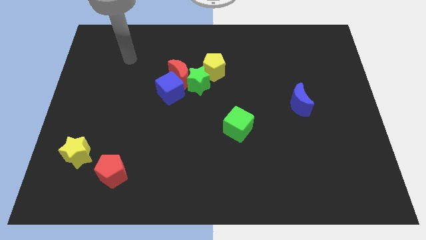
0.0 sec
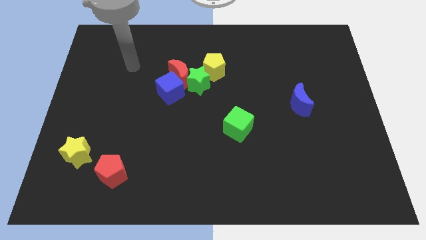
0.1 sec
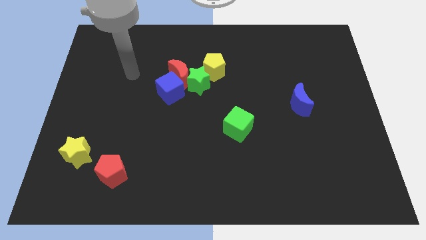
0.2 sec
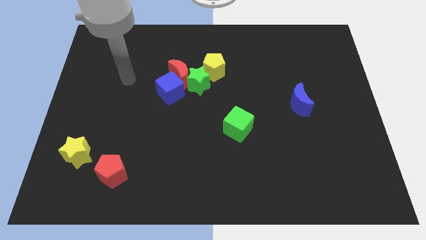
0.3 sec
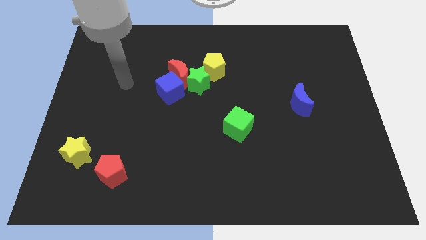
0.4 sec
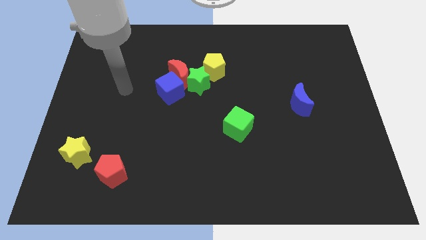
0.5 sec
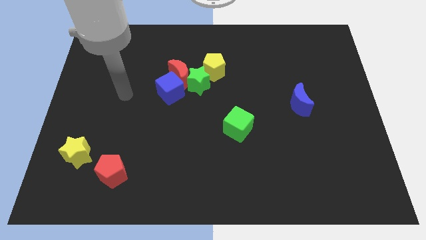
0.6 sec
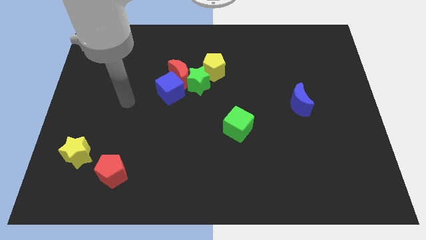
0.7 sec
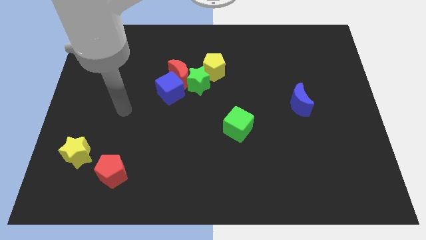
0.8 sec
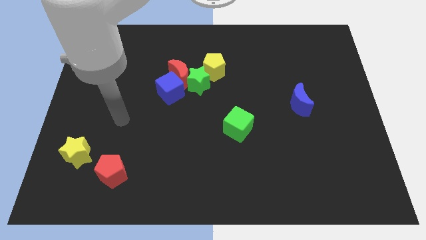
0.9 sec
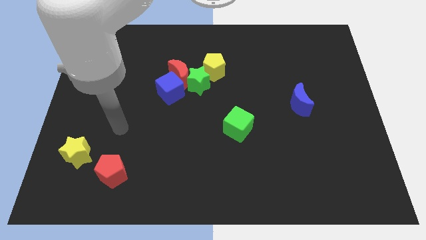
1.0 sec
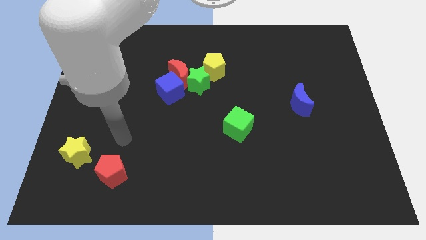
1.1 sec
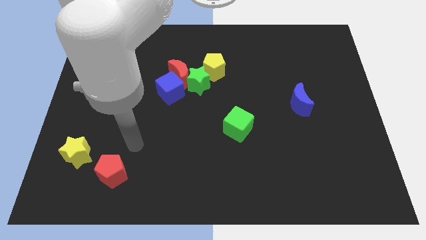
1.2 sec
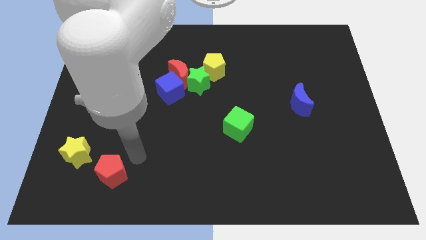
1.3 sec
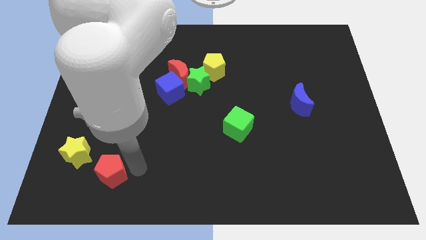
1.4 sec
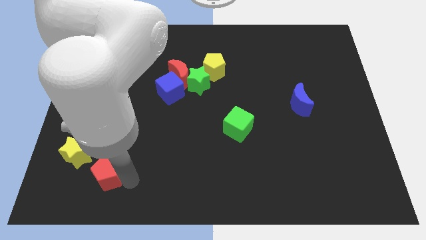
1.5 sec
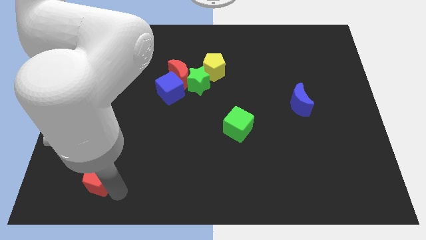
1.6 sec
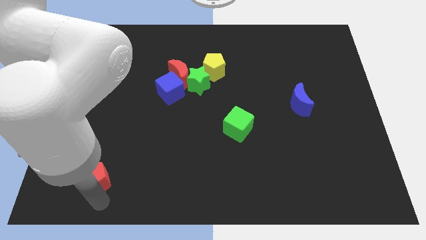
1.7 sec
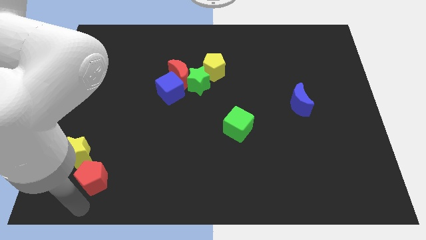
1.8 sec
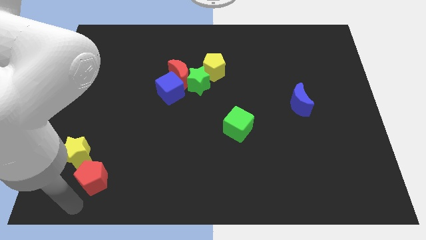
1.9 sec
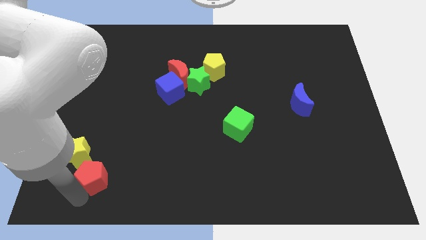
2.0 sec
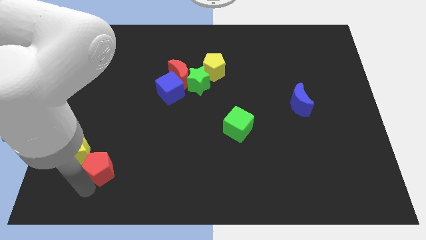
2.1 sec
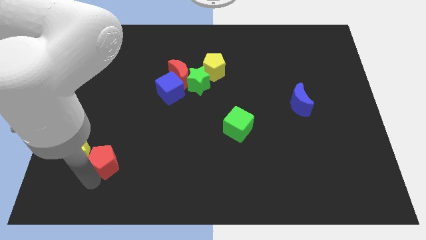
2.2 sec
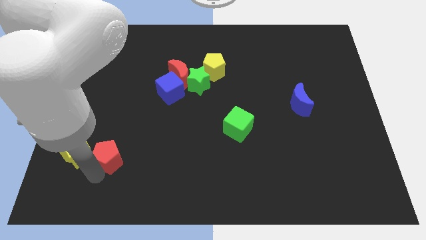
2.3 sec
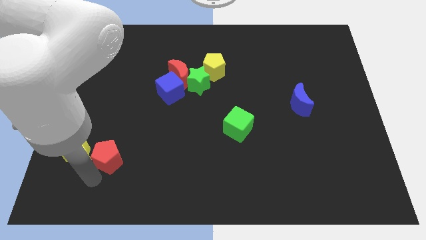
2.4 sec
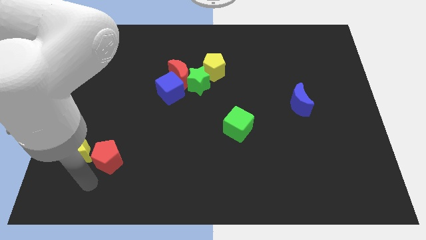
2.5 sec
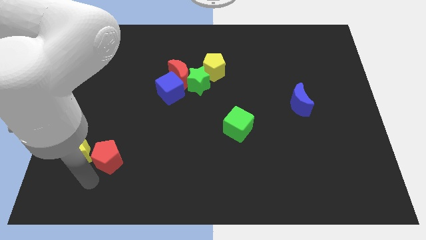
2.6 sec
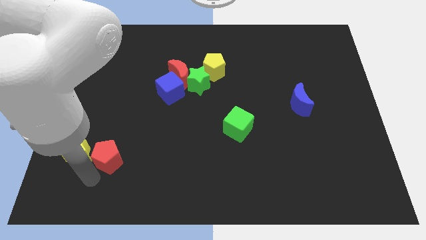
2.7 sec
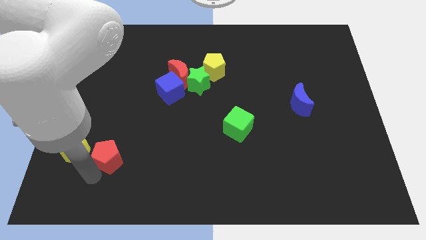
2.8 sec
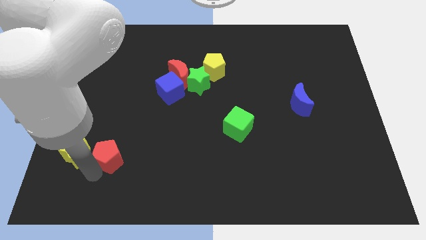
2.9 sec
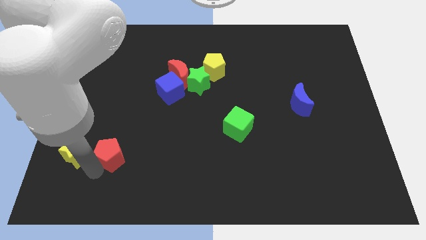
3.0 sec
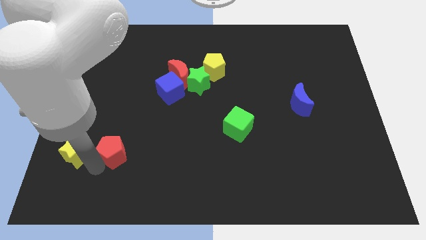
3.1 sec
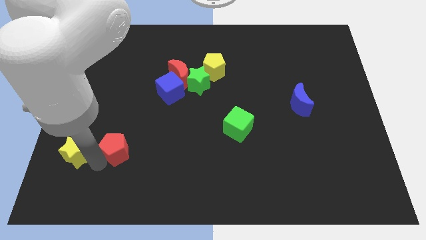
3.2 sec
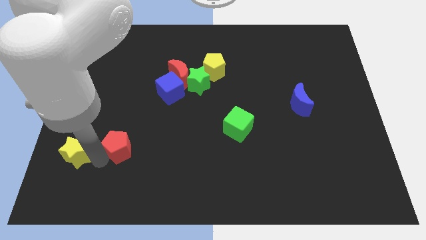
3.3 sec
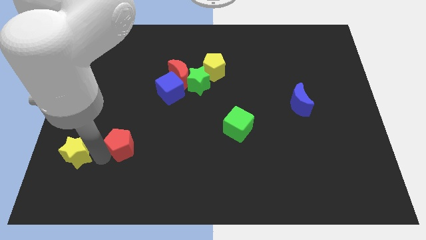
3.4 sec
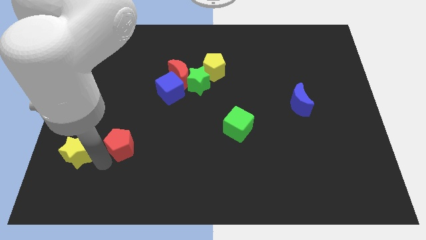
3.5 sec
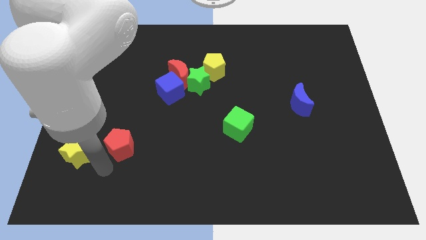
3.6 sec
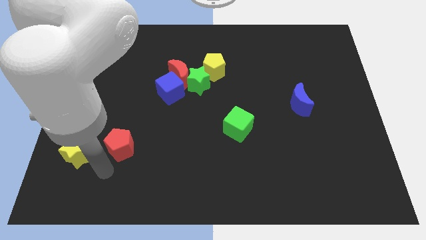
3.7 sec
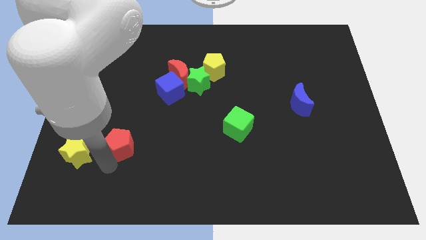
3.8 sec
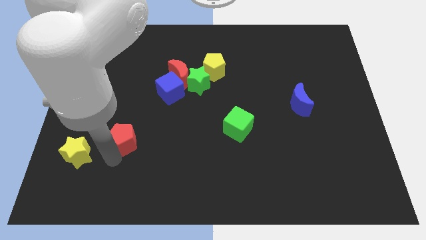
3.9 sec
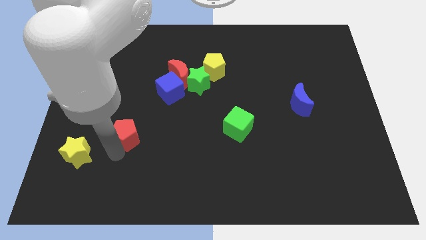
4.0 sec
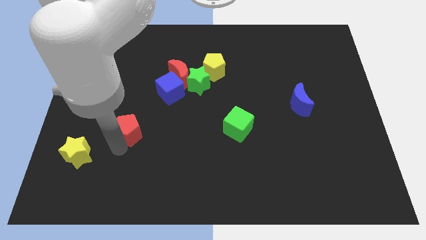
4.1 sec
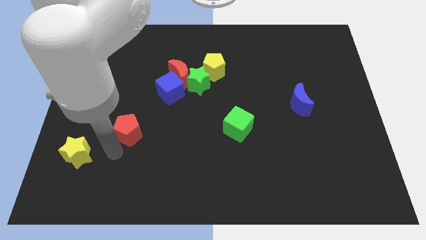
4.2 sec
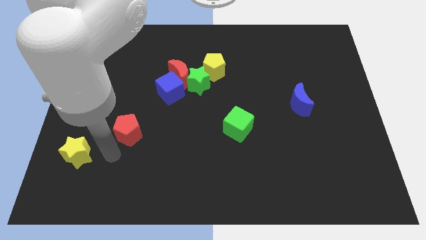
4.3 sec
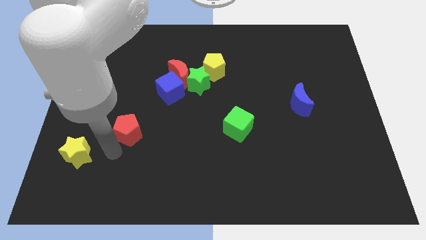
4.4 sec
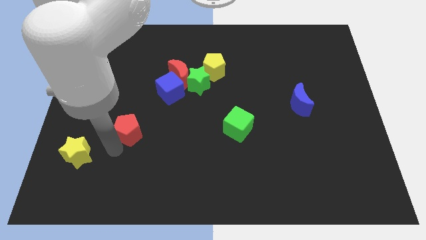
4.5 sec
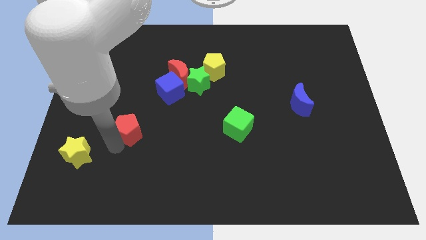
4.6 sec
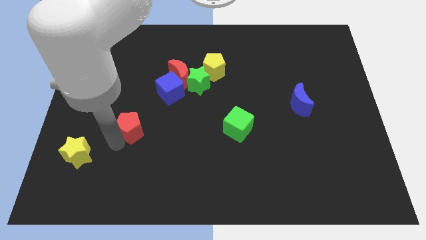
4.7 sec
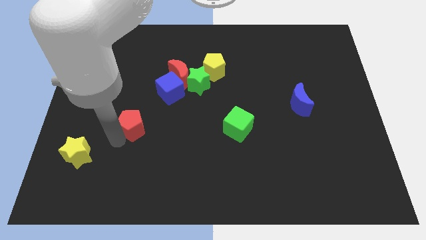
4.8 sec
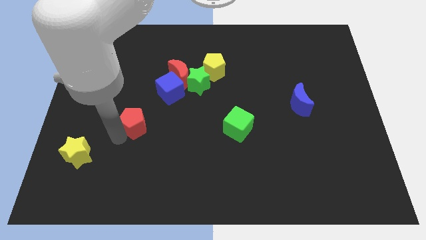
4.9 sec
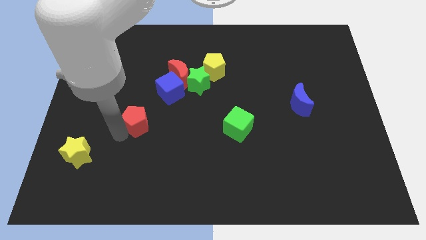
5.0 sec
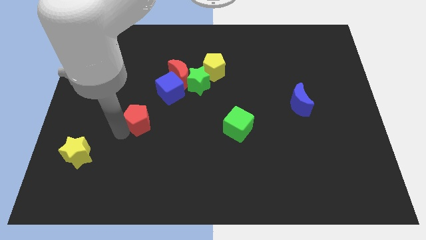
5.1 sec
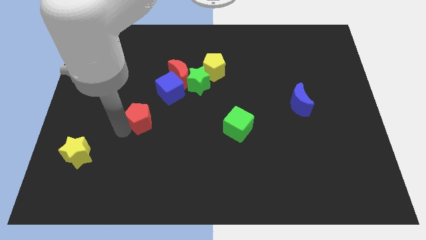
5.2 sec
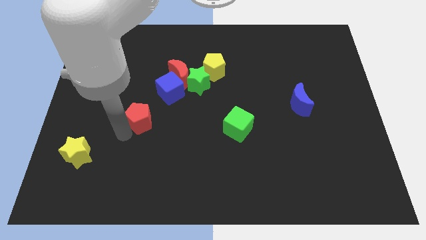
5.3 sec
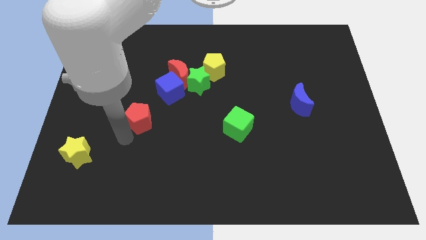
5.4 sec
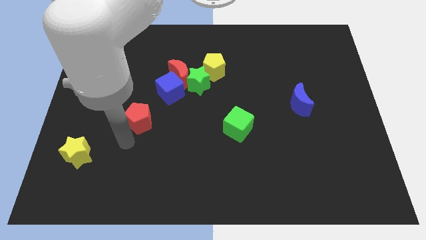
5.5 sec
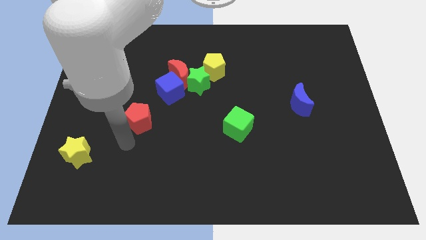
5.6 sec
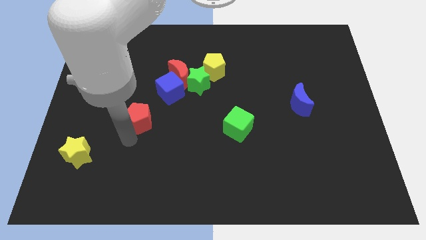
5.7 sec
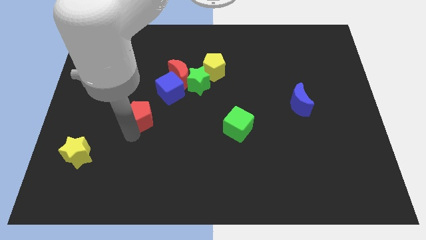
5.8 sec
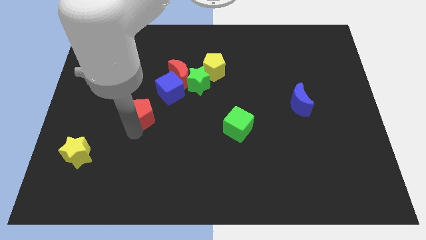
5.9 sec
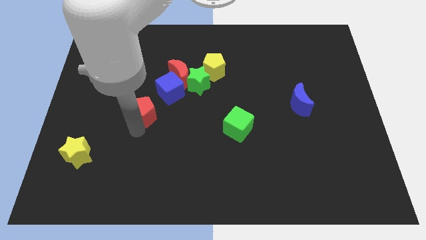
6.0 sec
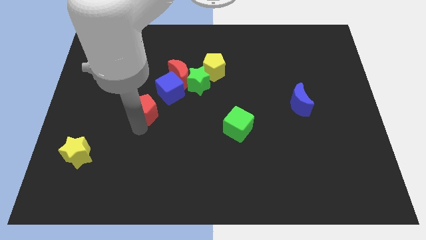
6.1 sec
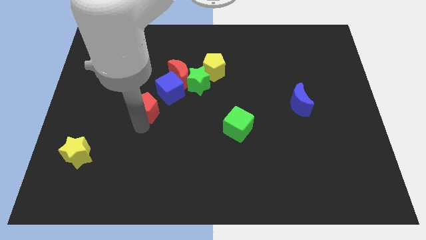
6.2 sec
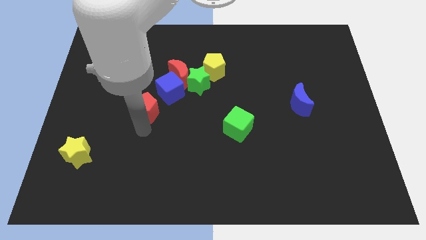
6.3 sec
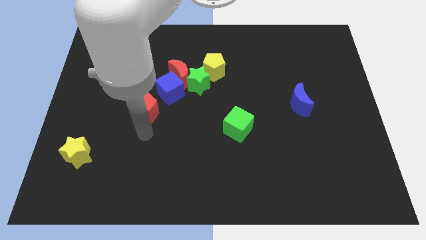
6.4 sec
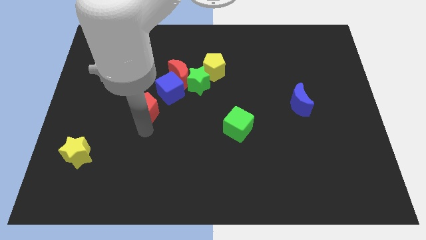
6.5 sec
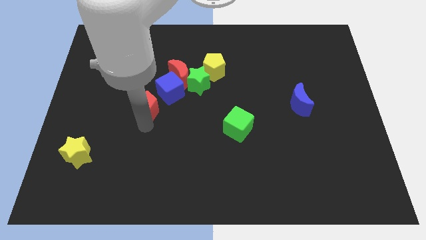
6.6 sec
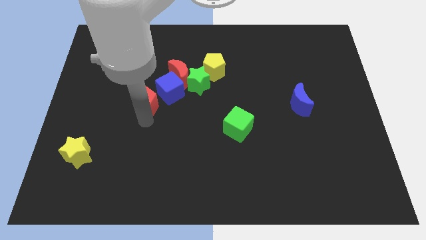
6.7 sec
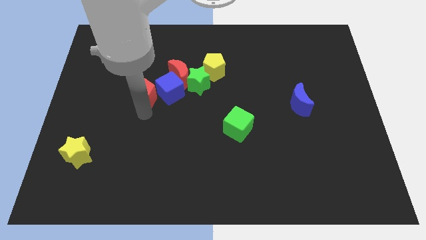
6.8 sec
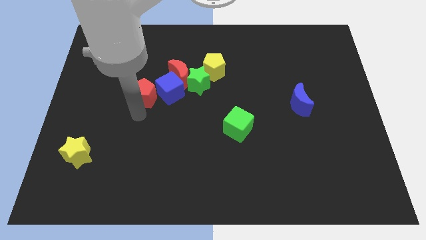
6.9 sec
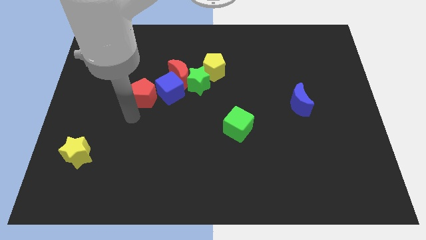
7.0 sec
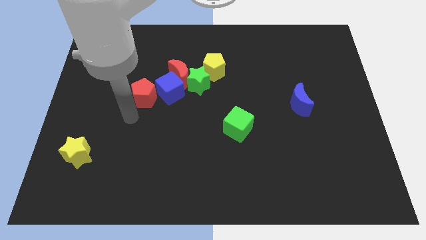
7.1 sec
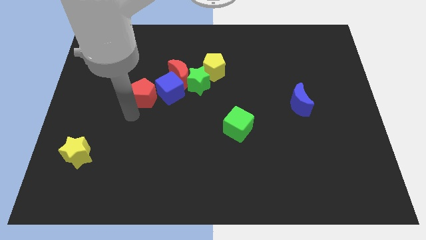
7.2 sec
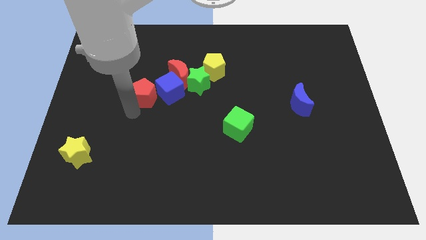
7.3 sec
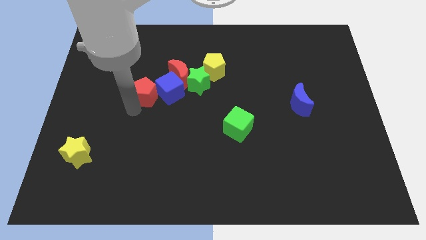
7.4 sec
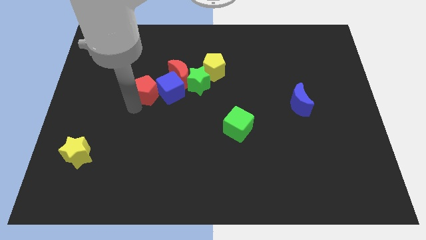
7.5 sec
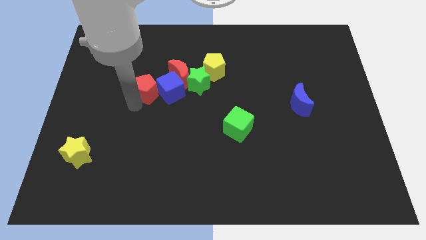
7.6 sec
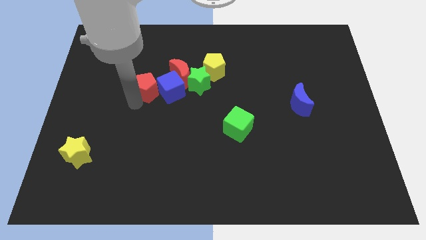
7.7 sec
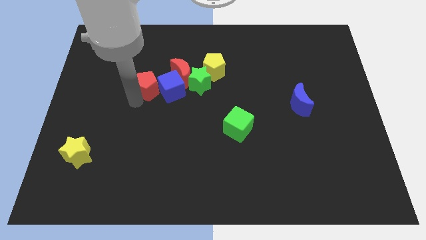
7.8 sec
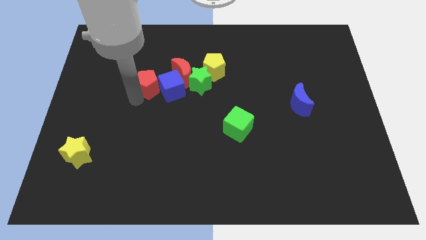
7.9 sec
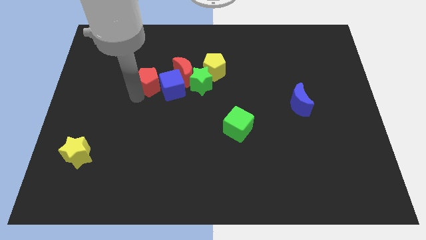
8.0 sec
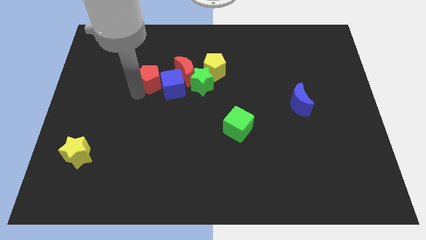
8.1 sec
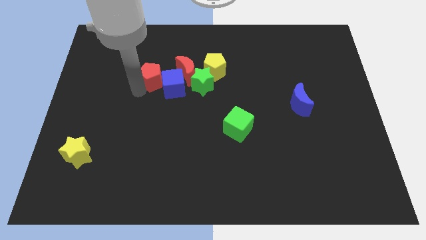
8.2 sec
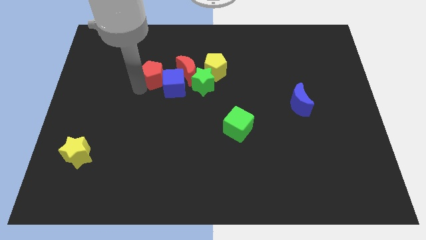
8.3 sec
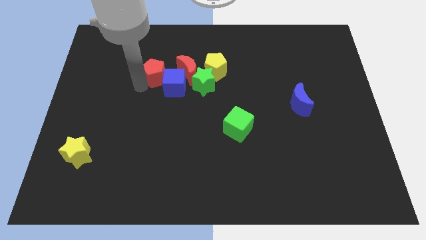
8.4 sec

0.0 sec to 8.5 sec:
push the red pentagon just left of the yellow pentagon
